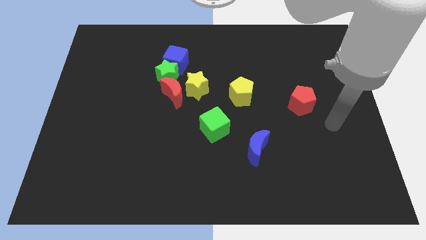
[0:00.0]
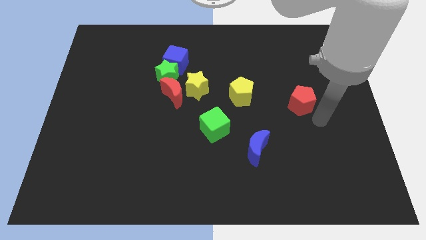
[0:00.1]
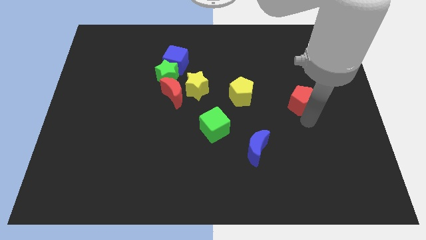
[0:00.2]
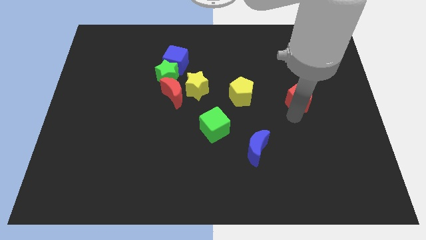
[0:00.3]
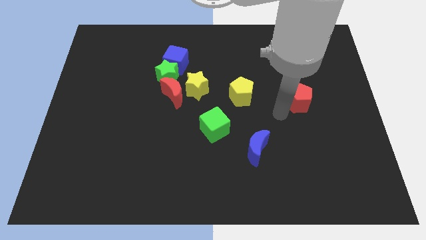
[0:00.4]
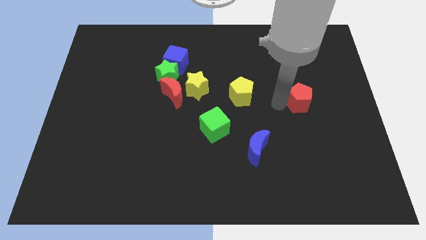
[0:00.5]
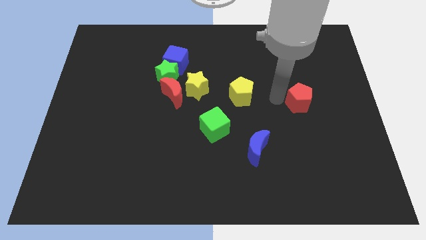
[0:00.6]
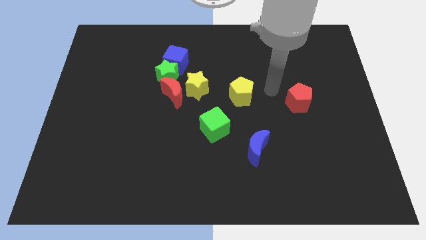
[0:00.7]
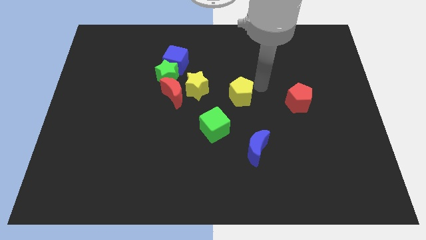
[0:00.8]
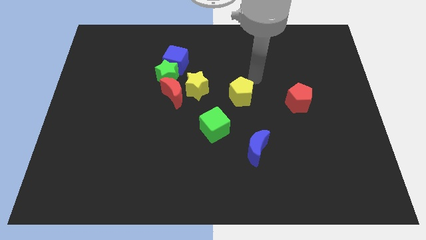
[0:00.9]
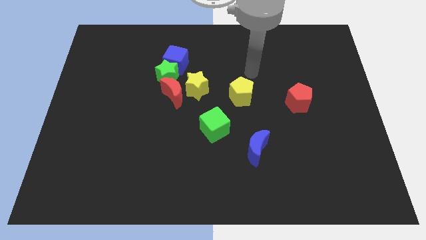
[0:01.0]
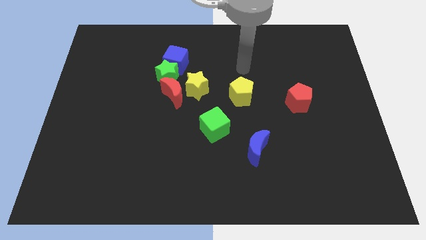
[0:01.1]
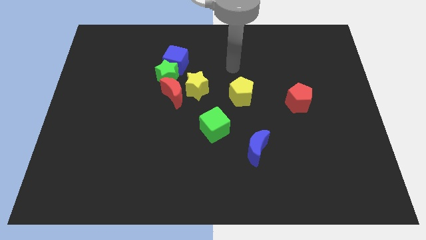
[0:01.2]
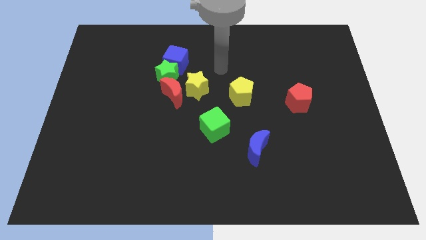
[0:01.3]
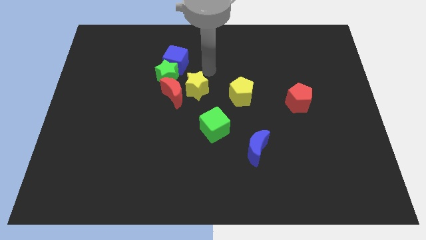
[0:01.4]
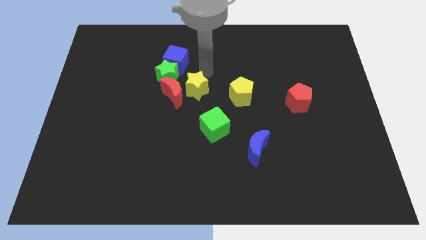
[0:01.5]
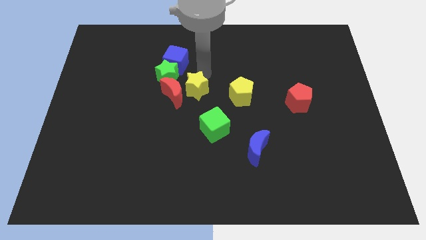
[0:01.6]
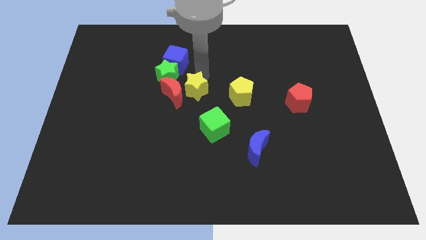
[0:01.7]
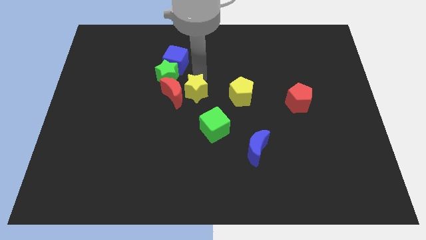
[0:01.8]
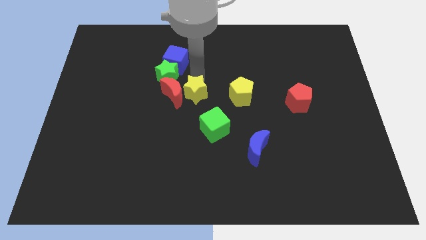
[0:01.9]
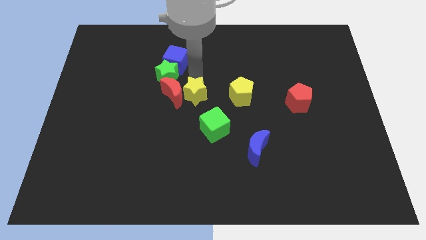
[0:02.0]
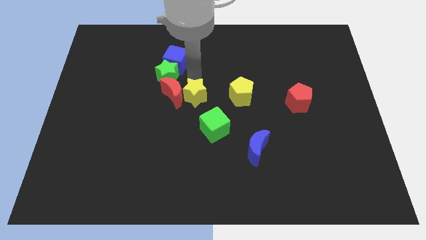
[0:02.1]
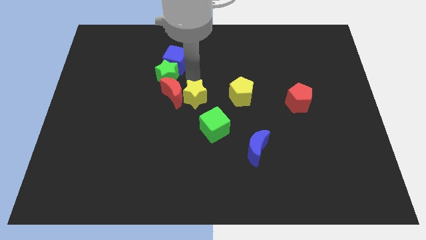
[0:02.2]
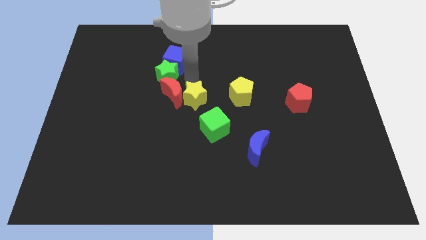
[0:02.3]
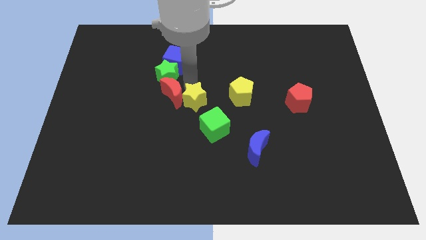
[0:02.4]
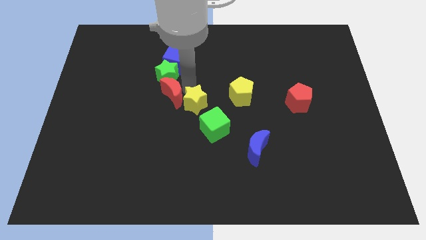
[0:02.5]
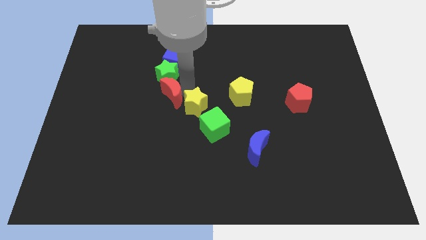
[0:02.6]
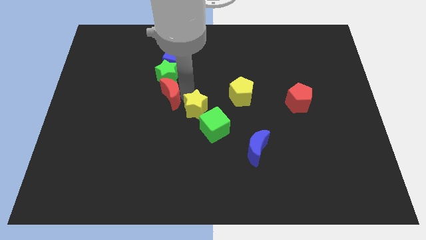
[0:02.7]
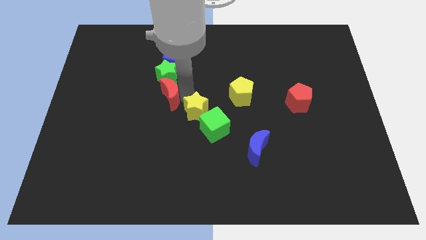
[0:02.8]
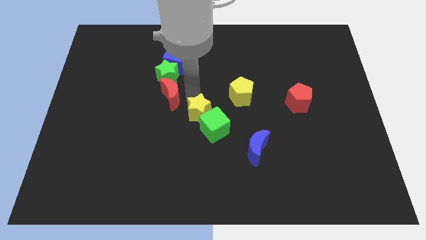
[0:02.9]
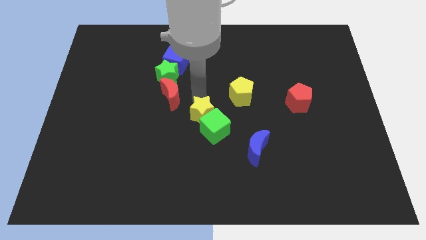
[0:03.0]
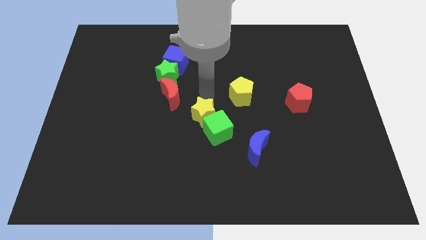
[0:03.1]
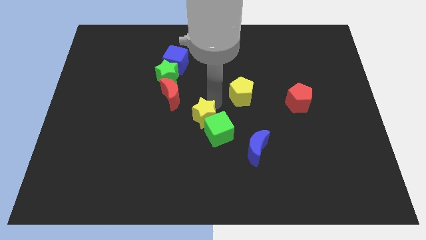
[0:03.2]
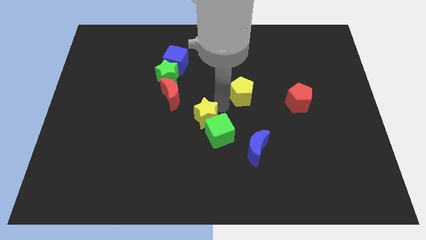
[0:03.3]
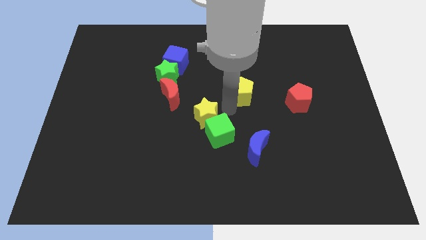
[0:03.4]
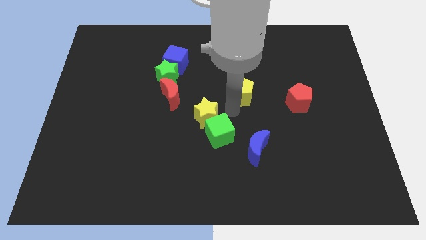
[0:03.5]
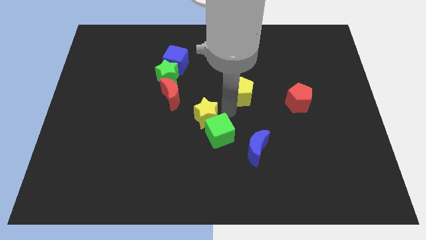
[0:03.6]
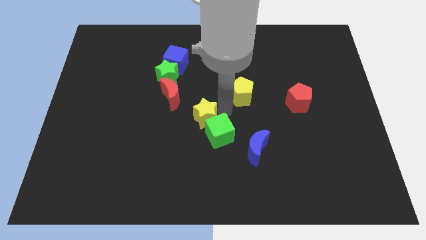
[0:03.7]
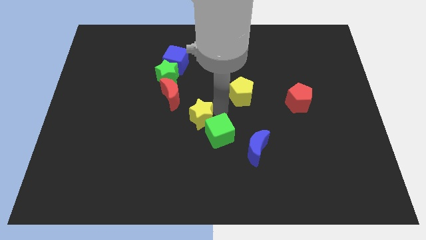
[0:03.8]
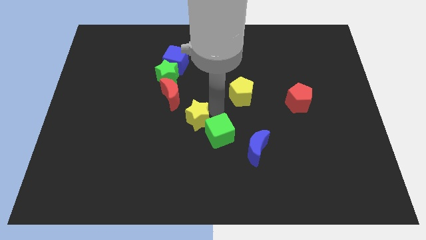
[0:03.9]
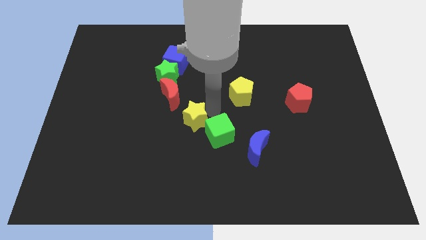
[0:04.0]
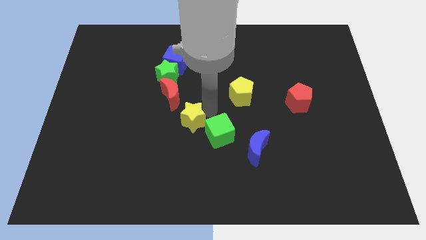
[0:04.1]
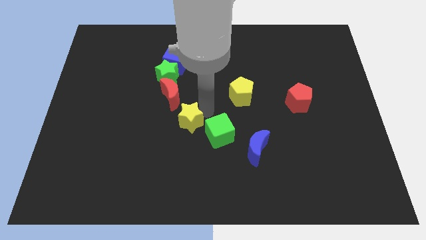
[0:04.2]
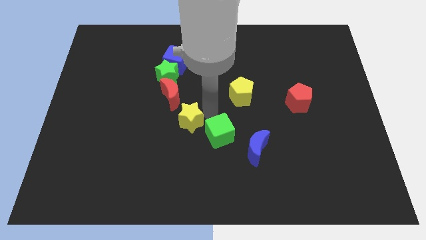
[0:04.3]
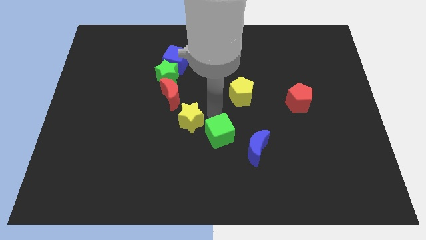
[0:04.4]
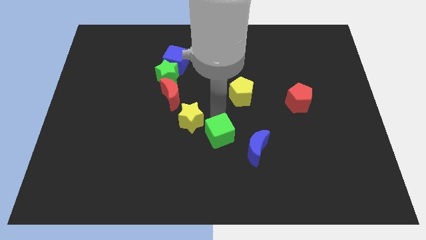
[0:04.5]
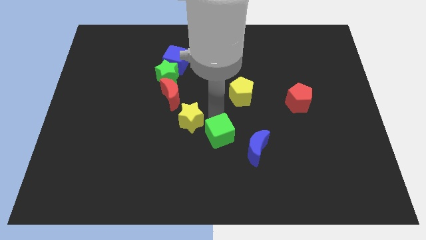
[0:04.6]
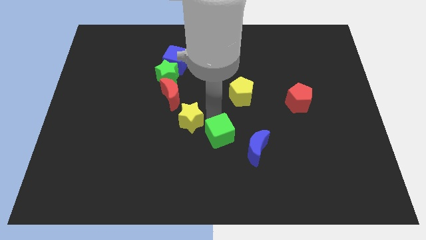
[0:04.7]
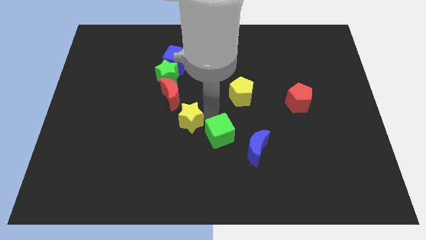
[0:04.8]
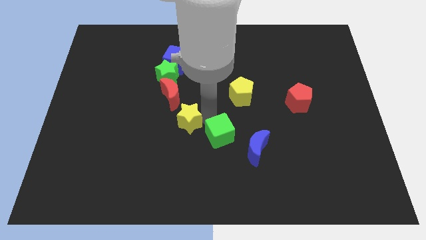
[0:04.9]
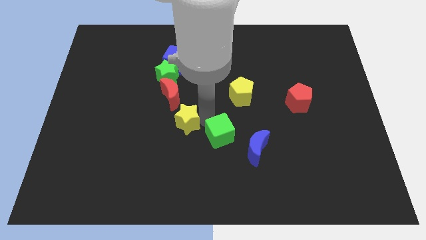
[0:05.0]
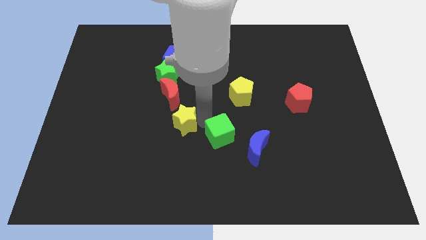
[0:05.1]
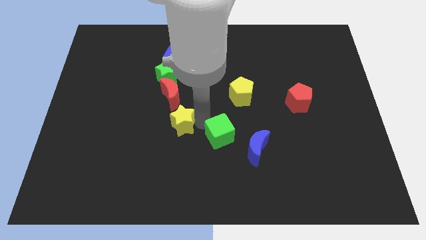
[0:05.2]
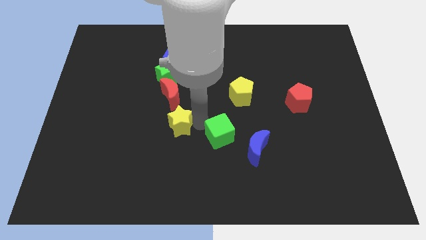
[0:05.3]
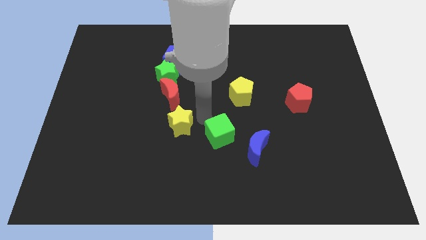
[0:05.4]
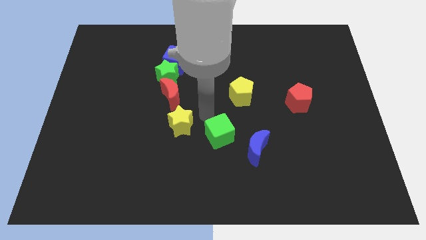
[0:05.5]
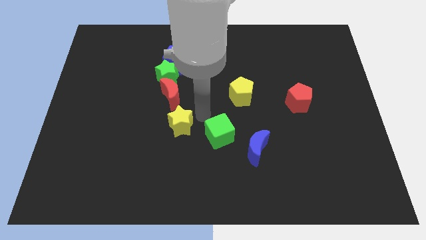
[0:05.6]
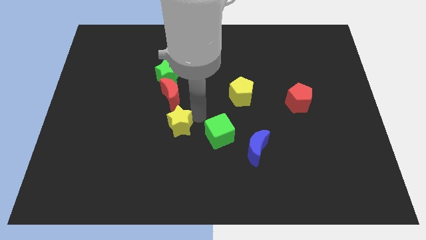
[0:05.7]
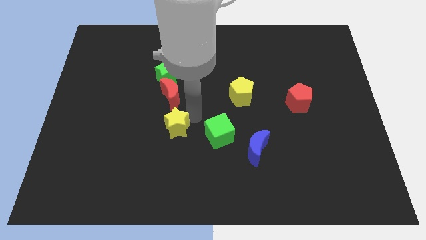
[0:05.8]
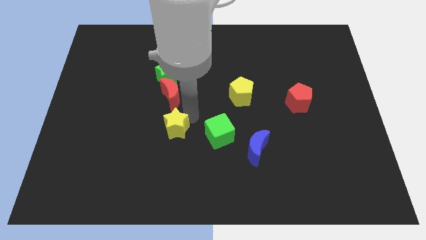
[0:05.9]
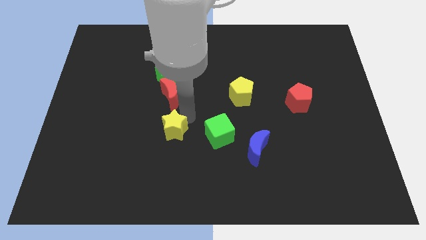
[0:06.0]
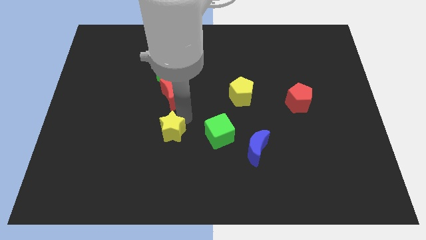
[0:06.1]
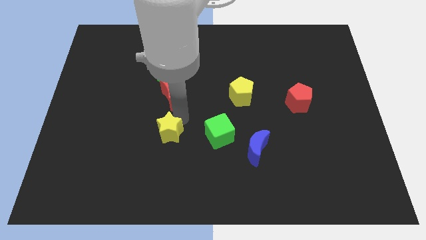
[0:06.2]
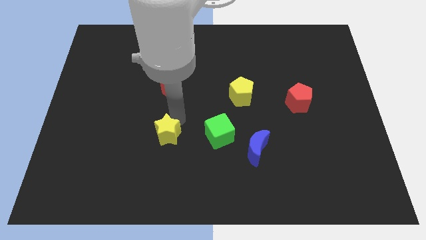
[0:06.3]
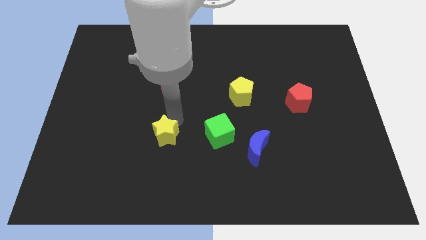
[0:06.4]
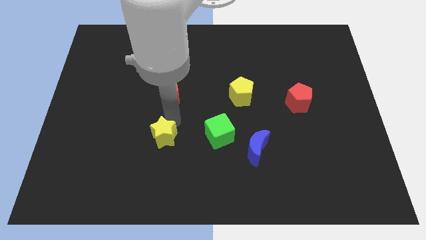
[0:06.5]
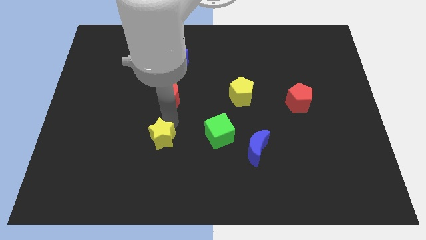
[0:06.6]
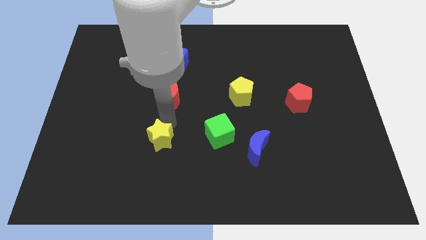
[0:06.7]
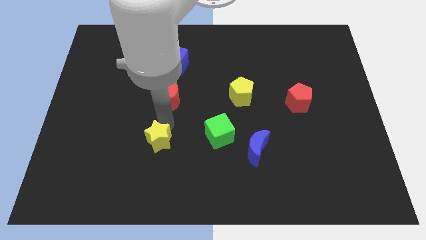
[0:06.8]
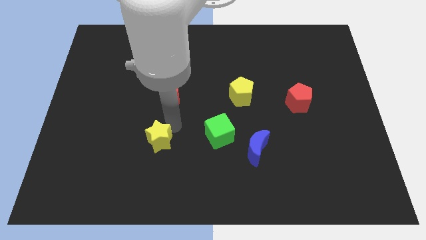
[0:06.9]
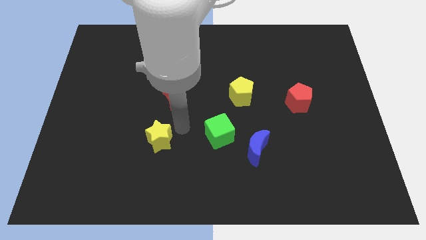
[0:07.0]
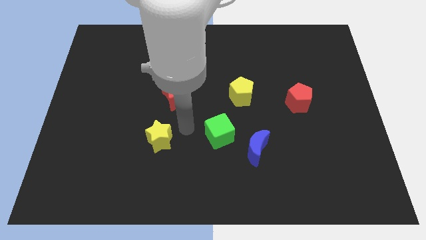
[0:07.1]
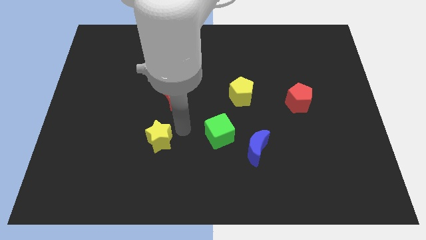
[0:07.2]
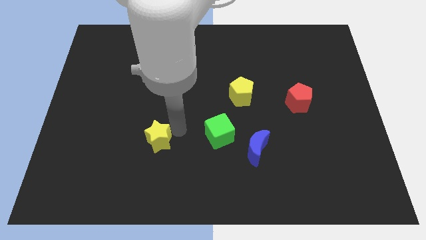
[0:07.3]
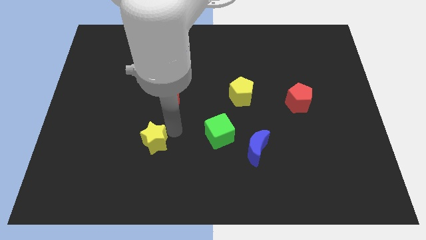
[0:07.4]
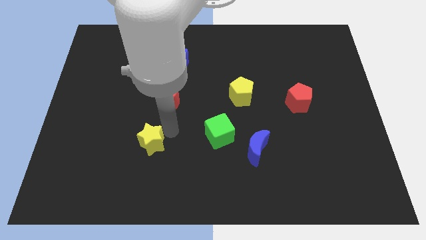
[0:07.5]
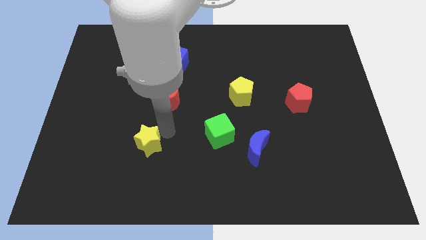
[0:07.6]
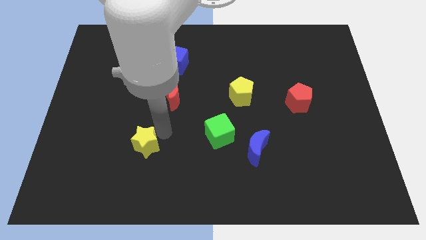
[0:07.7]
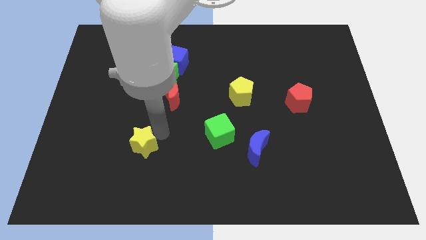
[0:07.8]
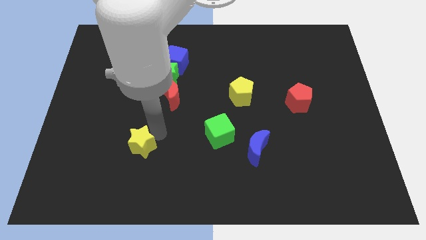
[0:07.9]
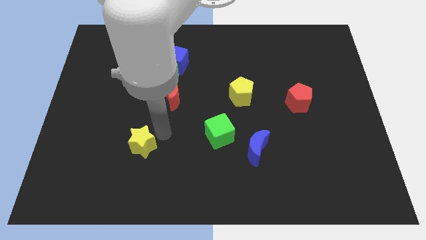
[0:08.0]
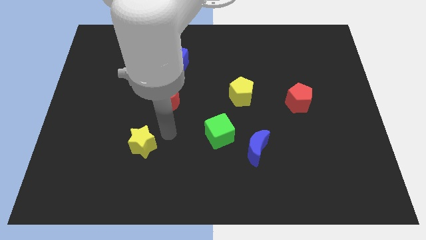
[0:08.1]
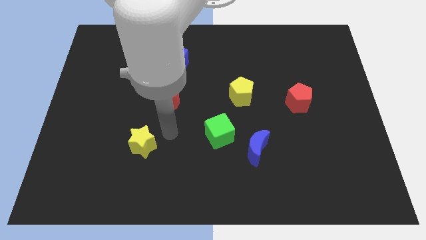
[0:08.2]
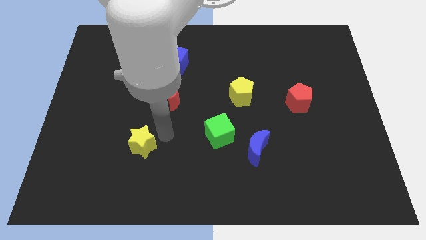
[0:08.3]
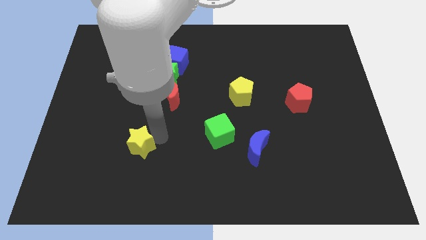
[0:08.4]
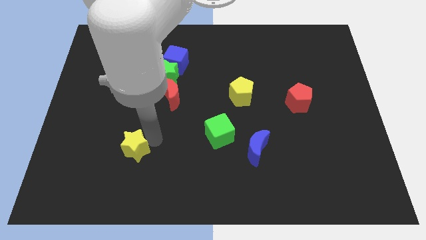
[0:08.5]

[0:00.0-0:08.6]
slide the yellow star downwards and to the left
